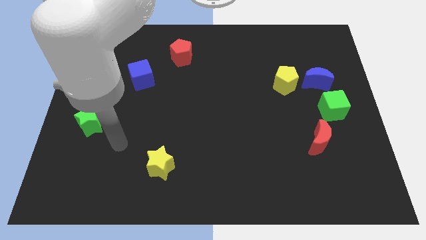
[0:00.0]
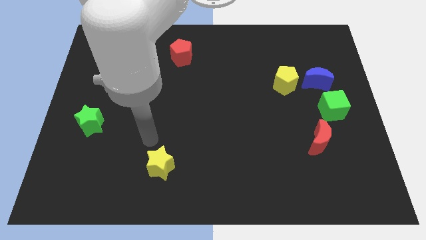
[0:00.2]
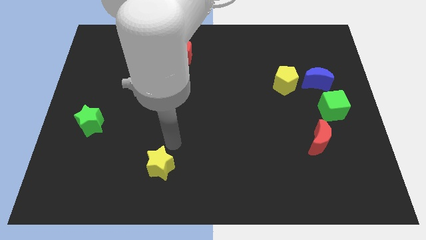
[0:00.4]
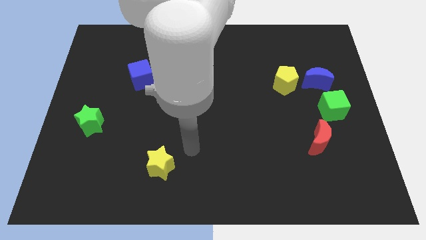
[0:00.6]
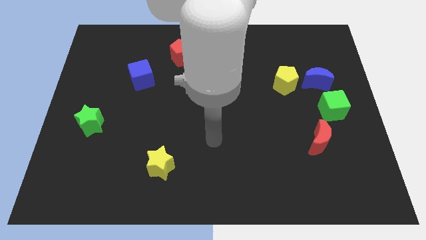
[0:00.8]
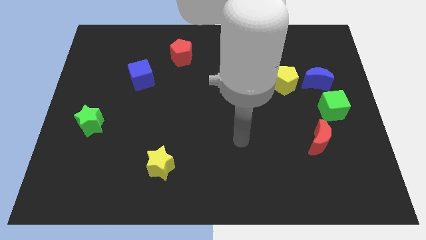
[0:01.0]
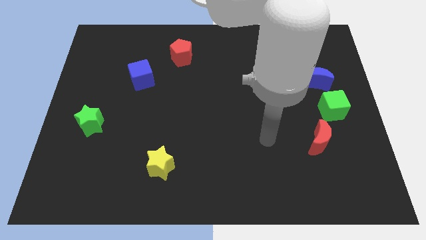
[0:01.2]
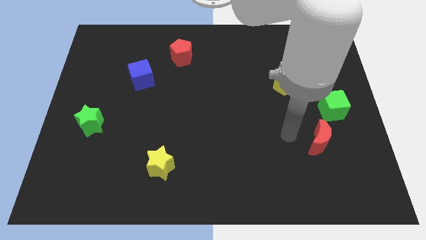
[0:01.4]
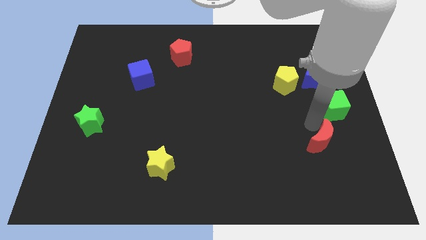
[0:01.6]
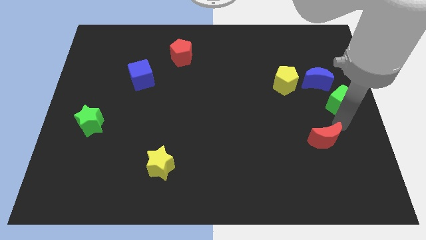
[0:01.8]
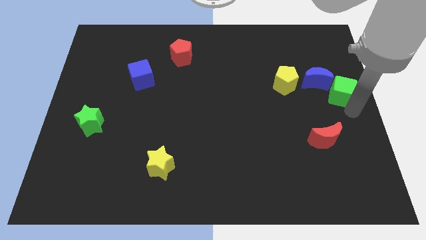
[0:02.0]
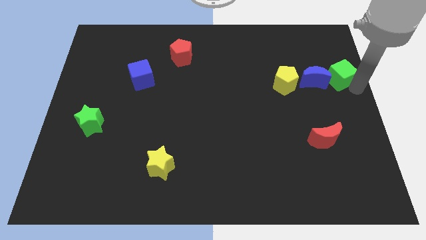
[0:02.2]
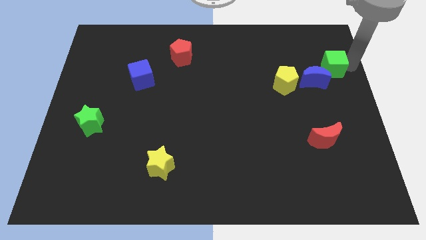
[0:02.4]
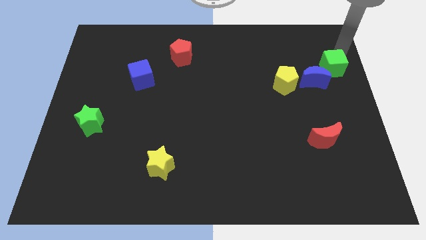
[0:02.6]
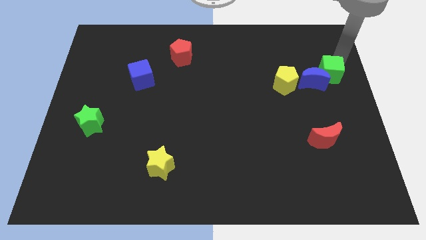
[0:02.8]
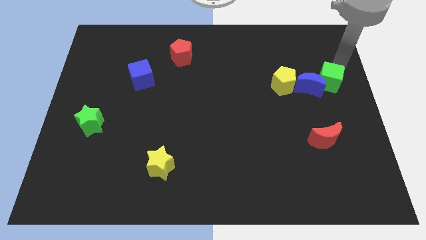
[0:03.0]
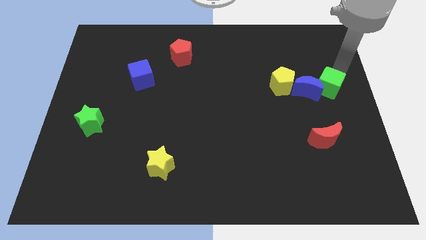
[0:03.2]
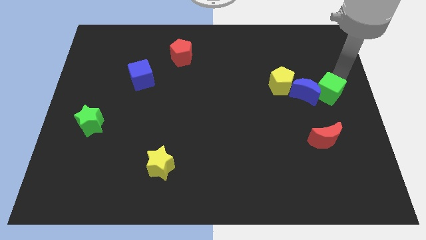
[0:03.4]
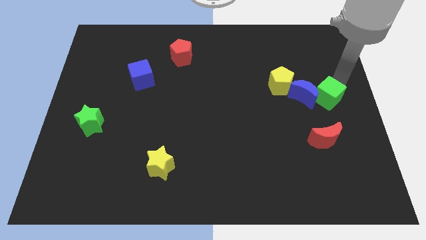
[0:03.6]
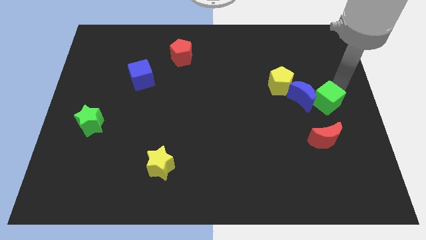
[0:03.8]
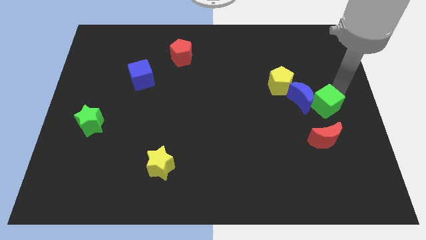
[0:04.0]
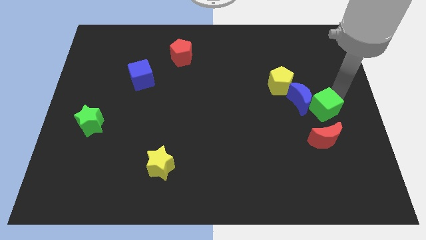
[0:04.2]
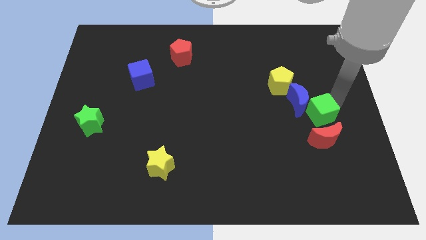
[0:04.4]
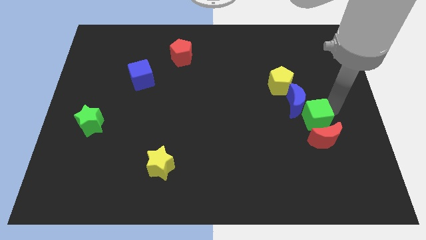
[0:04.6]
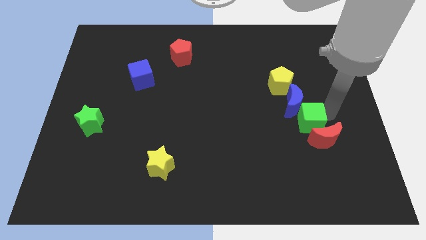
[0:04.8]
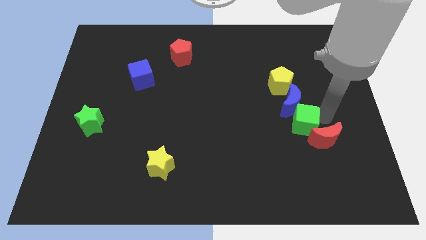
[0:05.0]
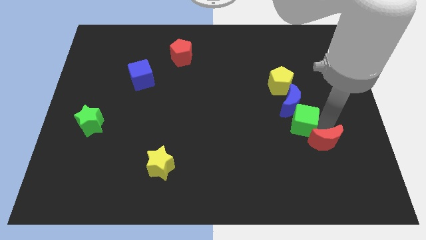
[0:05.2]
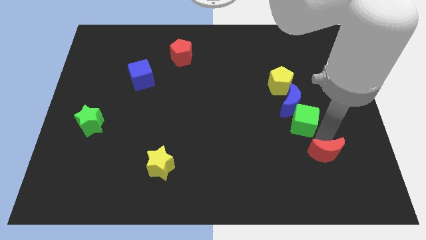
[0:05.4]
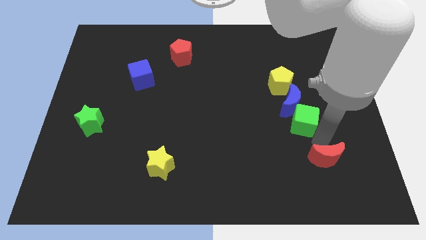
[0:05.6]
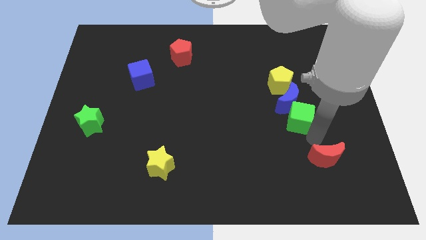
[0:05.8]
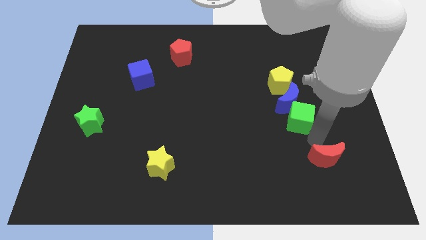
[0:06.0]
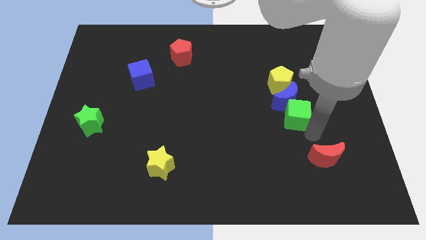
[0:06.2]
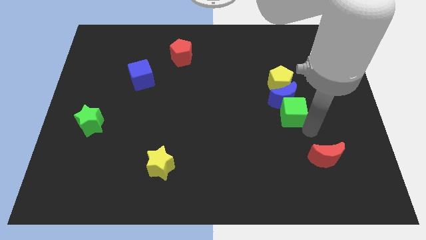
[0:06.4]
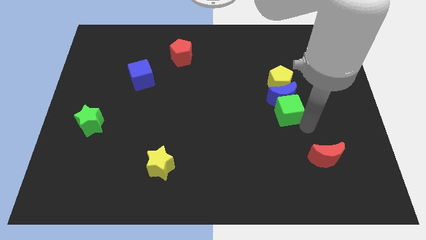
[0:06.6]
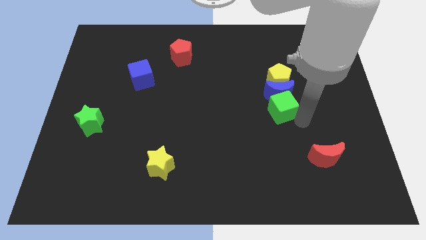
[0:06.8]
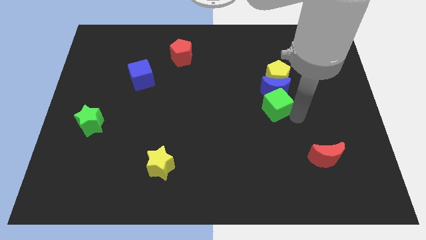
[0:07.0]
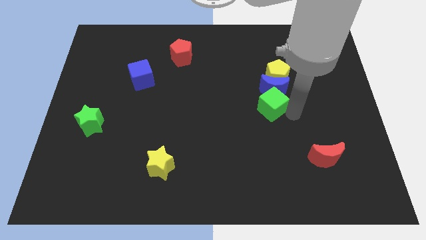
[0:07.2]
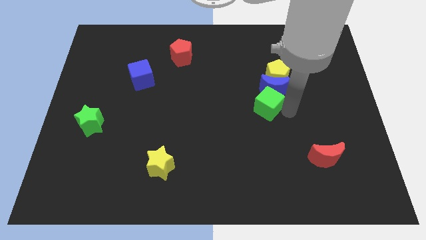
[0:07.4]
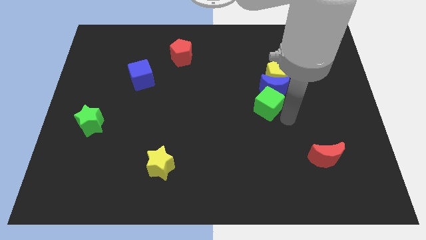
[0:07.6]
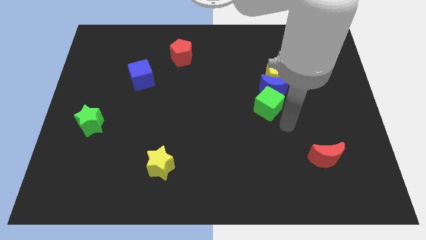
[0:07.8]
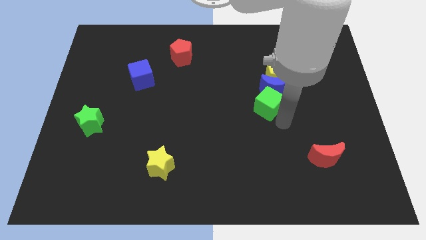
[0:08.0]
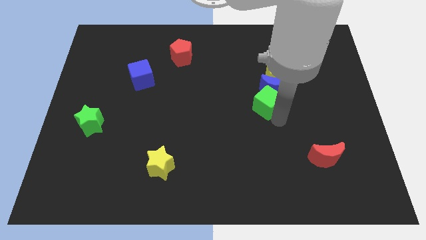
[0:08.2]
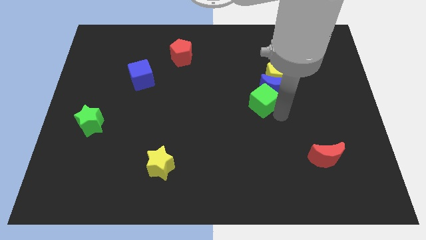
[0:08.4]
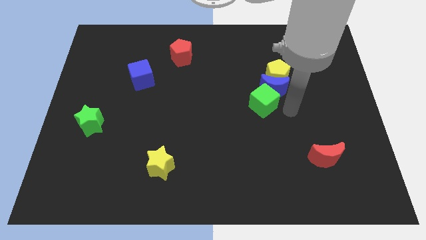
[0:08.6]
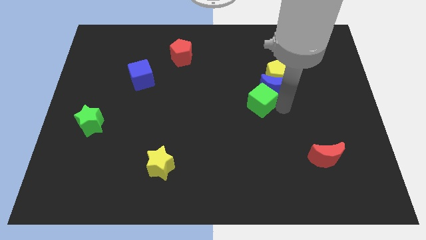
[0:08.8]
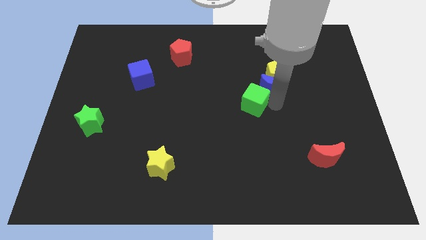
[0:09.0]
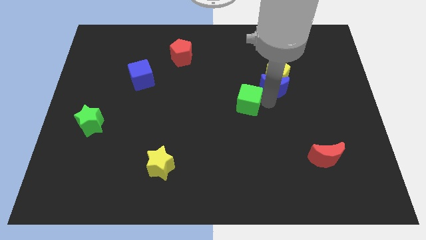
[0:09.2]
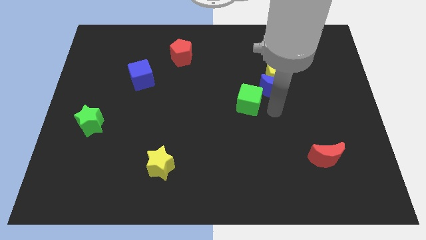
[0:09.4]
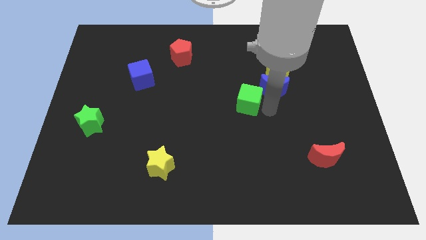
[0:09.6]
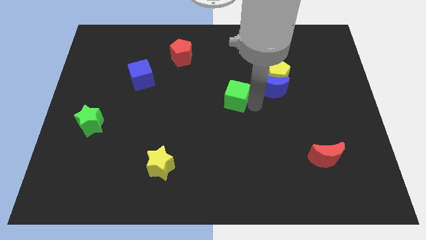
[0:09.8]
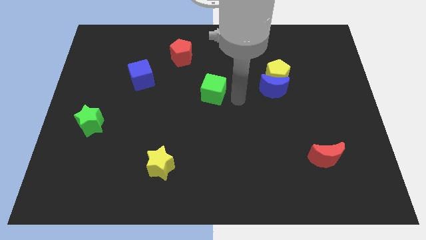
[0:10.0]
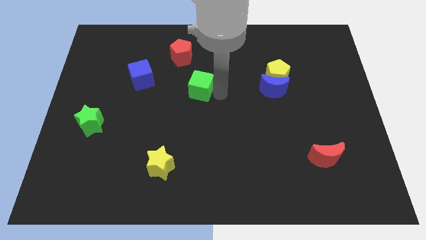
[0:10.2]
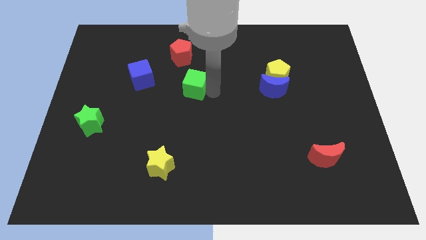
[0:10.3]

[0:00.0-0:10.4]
move the green cube below the red pentagon

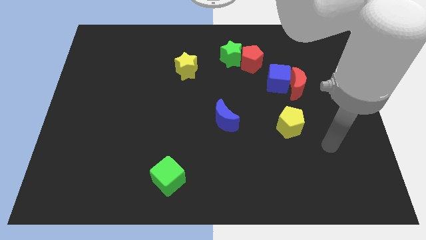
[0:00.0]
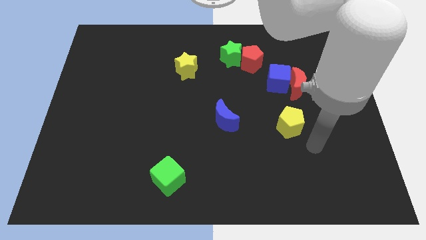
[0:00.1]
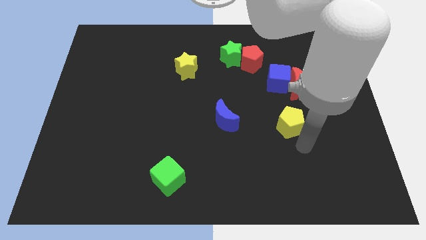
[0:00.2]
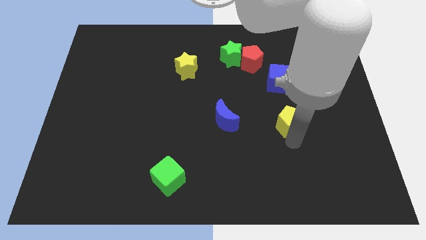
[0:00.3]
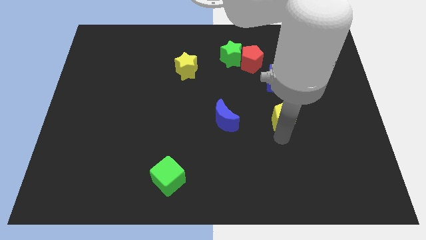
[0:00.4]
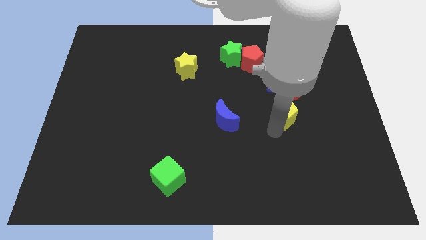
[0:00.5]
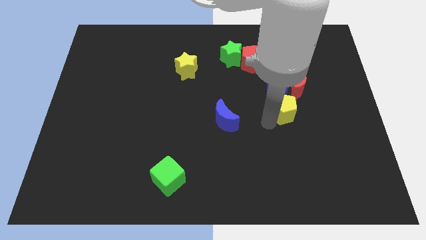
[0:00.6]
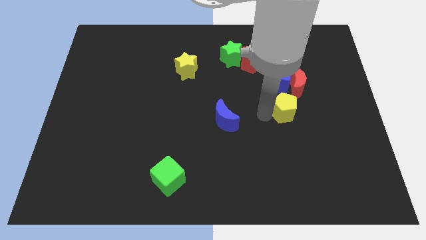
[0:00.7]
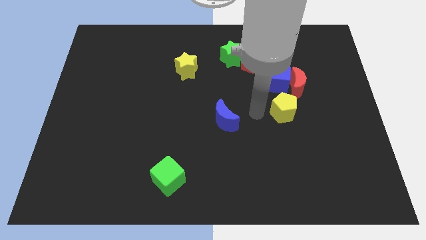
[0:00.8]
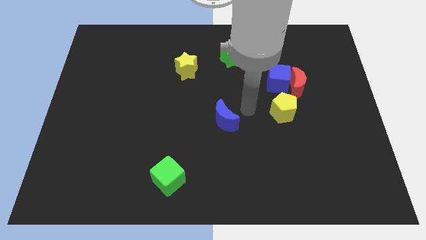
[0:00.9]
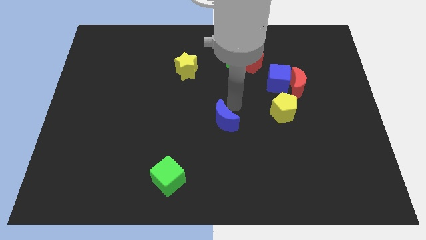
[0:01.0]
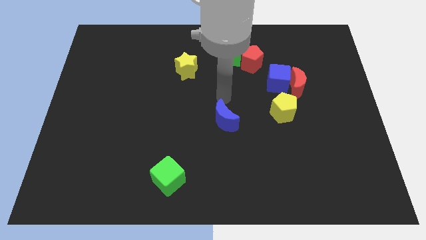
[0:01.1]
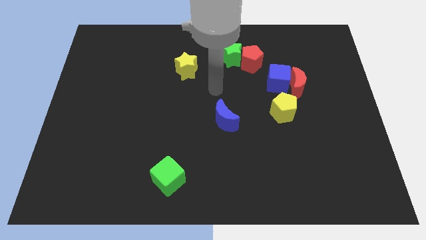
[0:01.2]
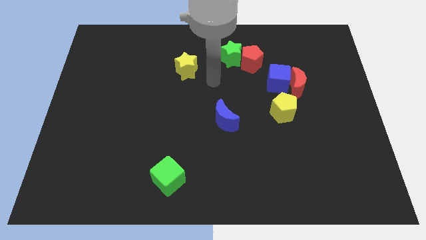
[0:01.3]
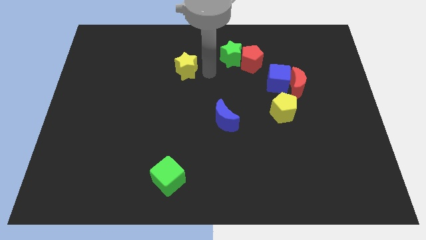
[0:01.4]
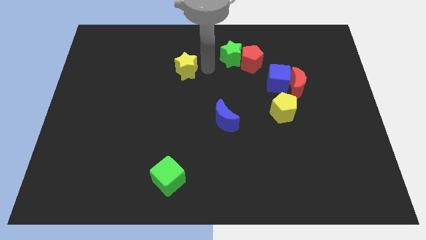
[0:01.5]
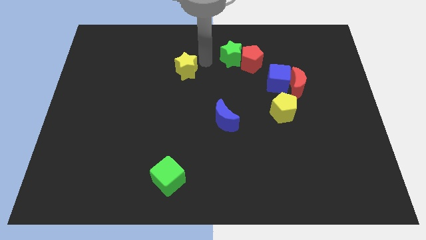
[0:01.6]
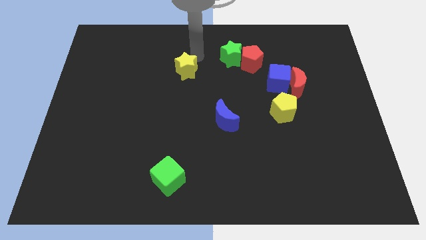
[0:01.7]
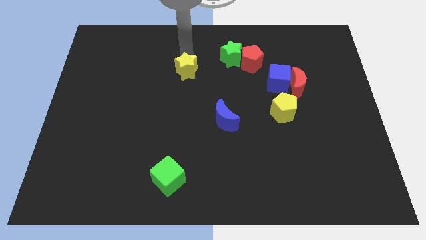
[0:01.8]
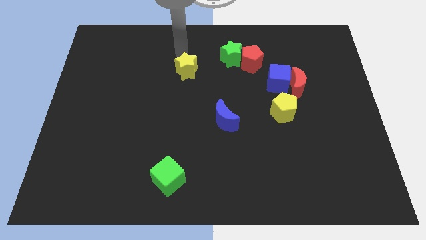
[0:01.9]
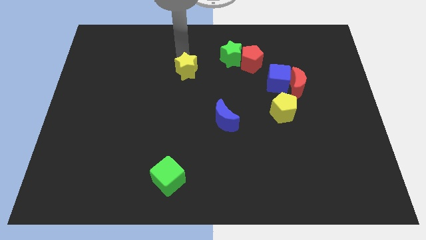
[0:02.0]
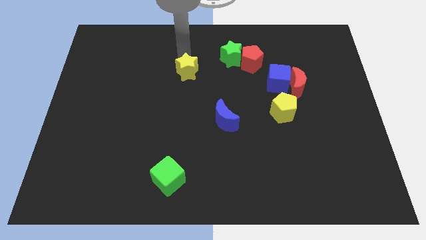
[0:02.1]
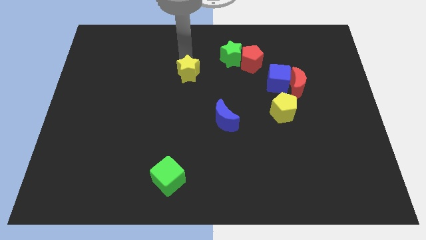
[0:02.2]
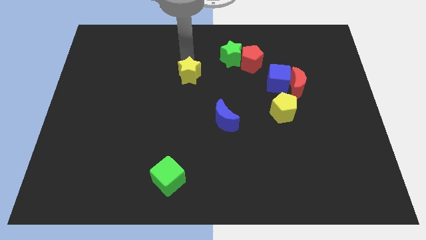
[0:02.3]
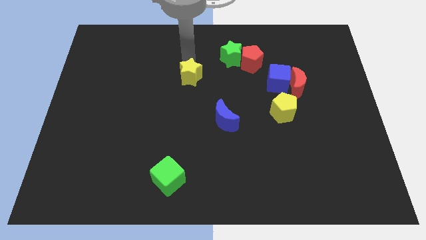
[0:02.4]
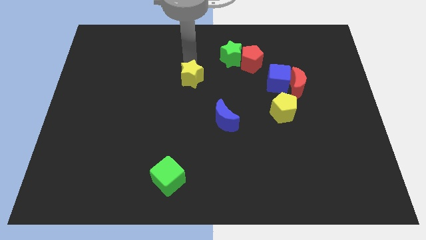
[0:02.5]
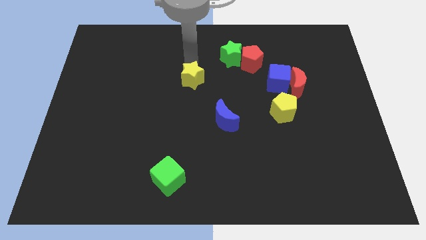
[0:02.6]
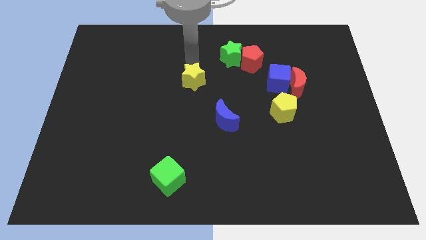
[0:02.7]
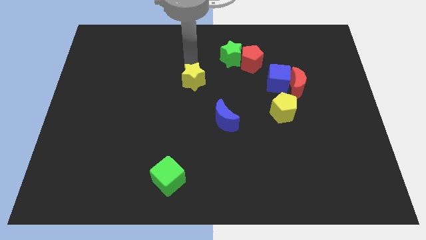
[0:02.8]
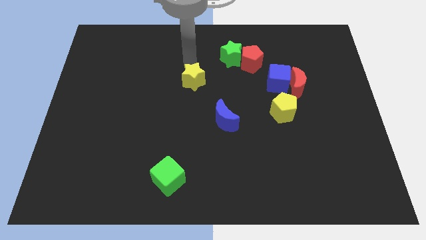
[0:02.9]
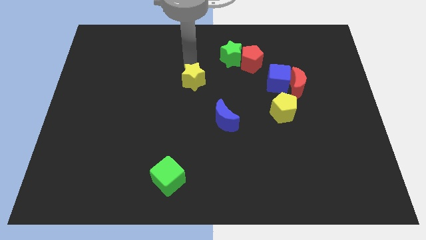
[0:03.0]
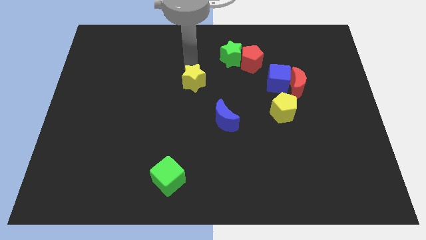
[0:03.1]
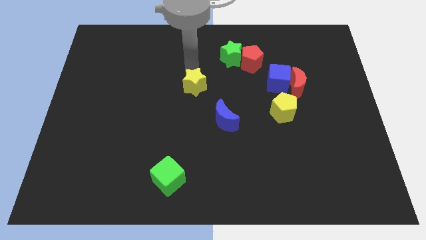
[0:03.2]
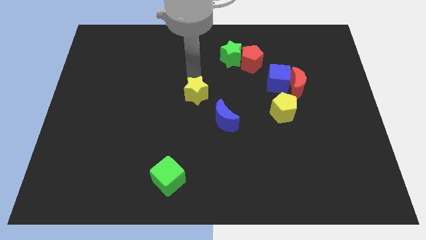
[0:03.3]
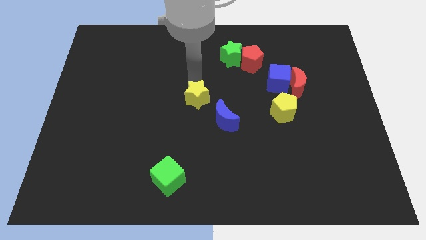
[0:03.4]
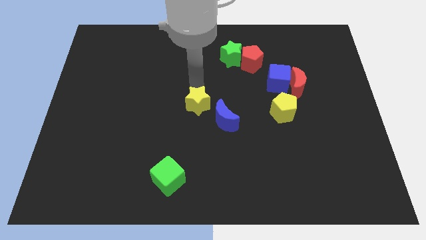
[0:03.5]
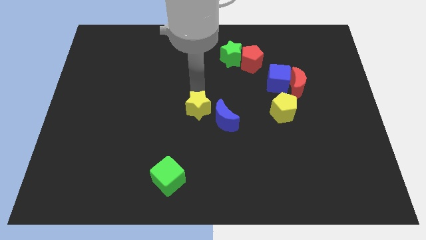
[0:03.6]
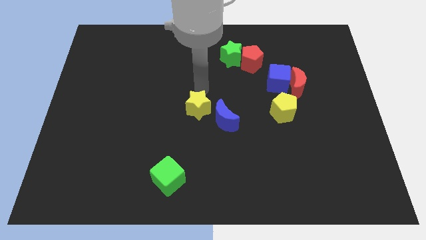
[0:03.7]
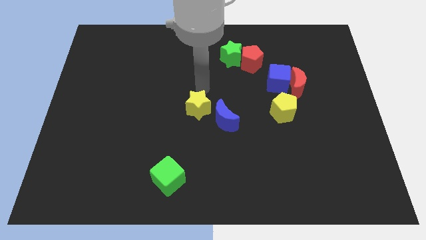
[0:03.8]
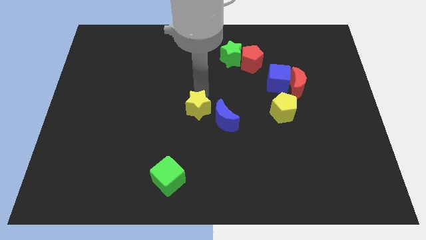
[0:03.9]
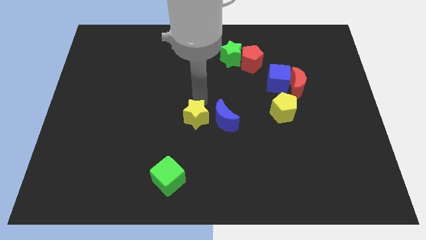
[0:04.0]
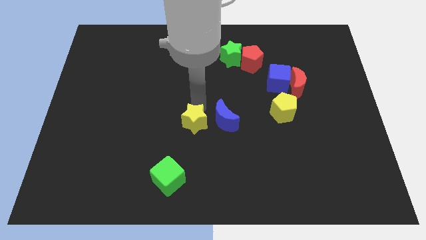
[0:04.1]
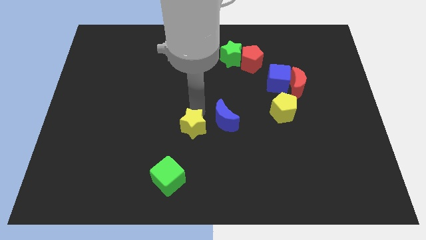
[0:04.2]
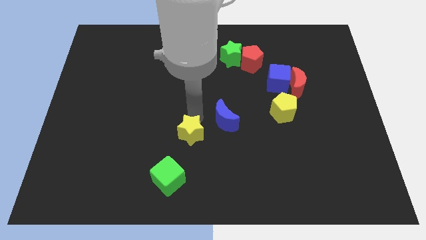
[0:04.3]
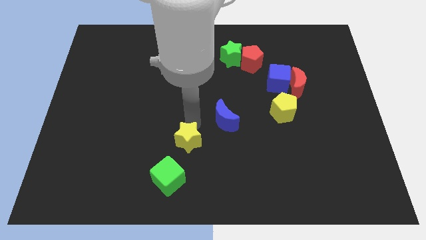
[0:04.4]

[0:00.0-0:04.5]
slide the yellow star to the top right side of the green cube
